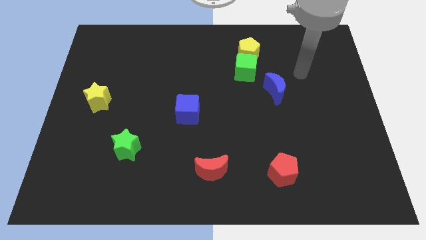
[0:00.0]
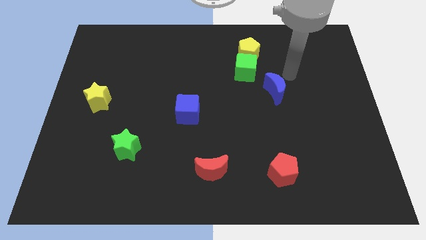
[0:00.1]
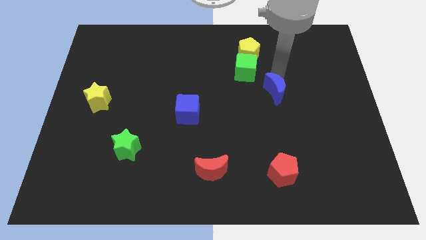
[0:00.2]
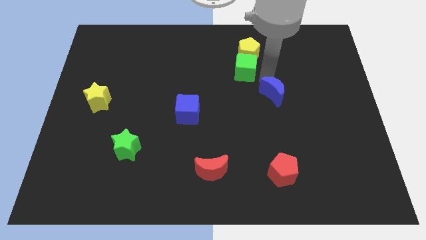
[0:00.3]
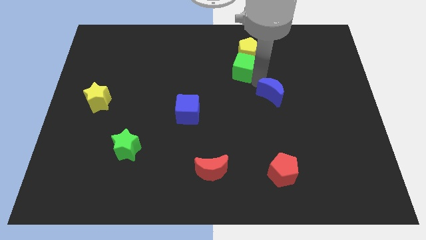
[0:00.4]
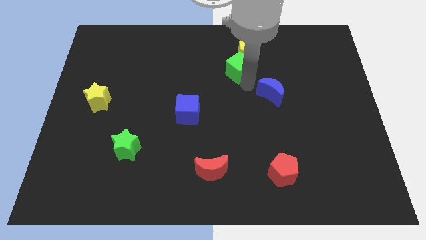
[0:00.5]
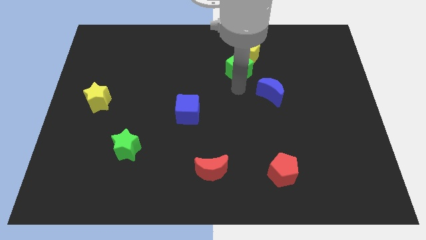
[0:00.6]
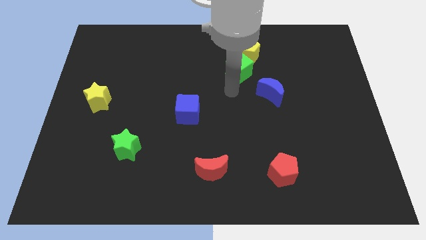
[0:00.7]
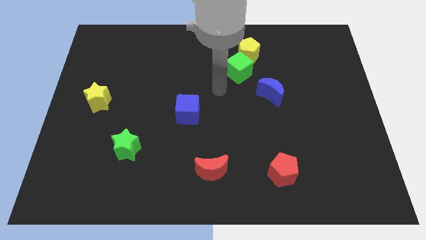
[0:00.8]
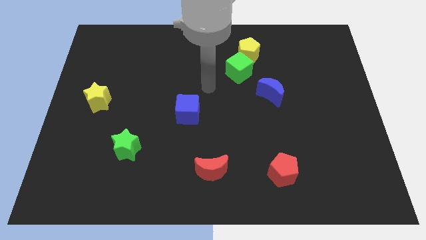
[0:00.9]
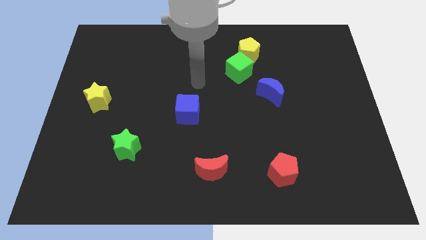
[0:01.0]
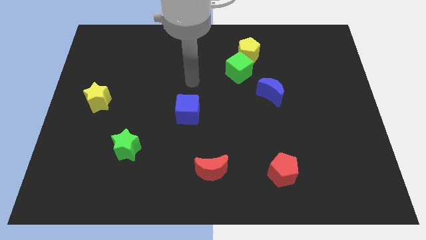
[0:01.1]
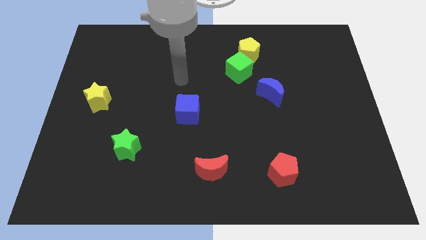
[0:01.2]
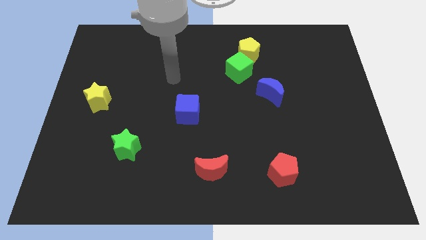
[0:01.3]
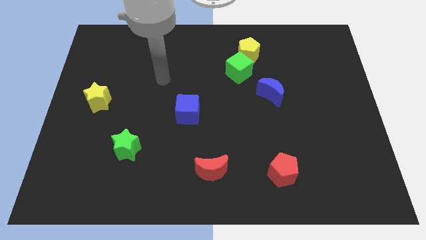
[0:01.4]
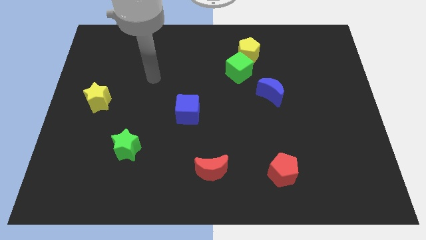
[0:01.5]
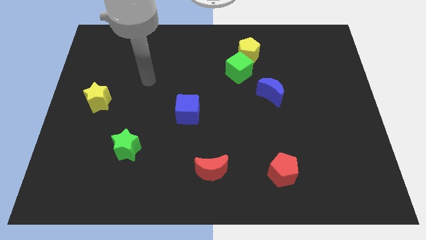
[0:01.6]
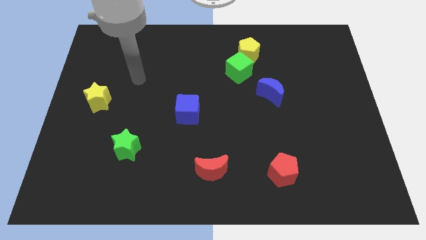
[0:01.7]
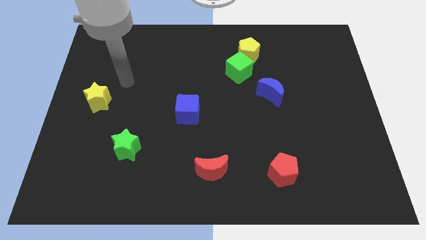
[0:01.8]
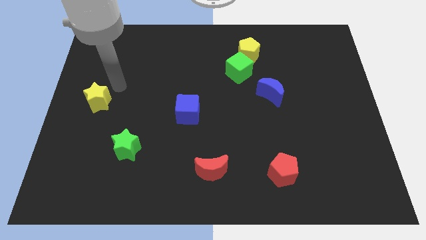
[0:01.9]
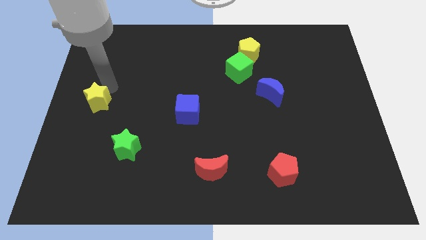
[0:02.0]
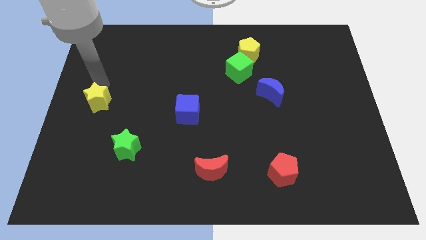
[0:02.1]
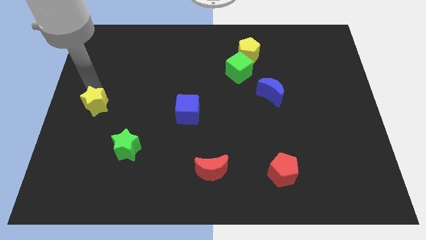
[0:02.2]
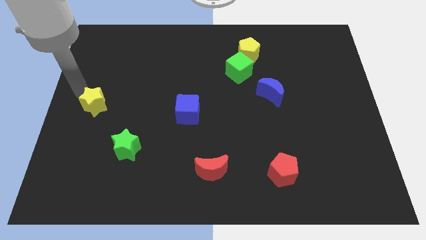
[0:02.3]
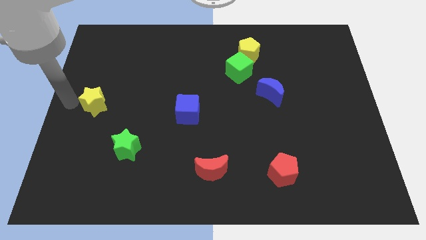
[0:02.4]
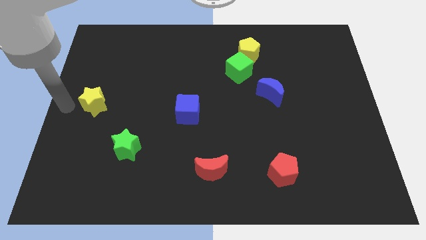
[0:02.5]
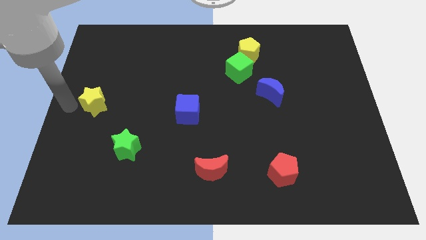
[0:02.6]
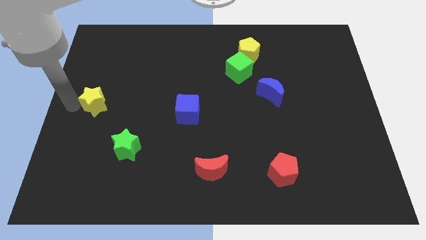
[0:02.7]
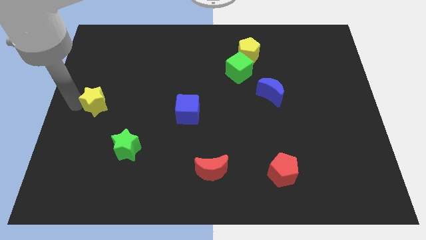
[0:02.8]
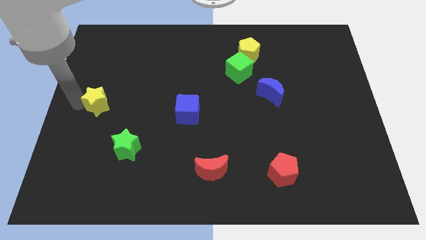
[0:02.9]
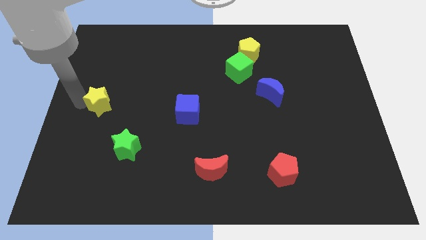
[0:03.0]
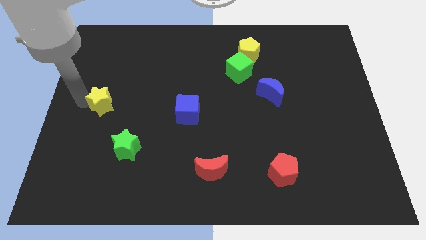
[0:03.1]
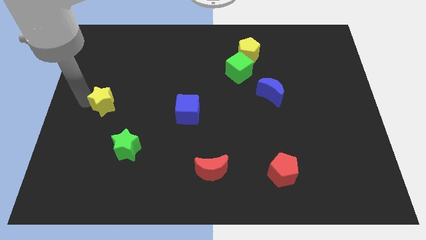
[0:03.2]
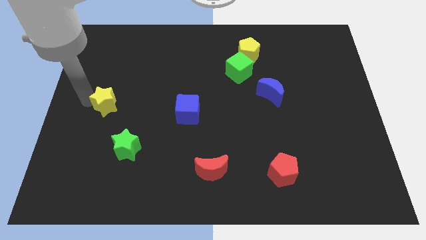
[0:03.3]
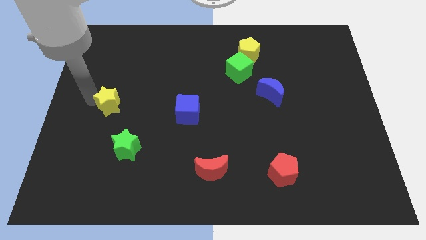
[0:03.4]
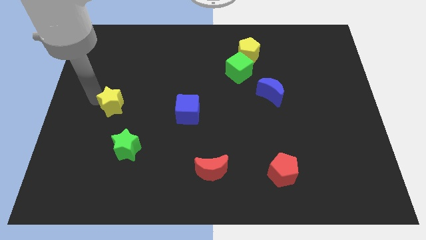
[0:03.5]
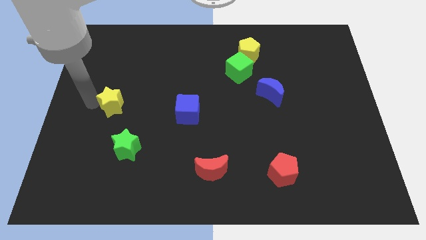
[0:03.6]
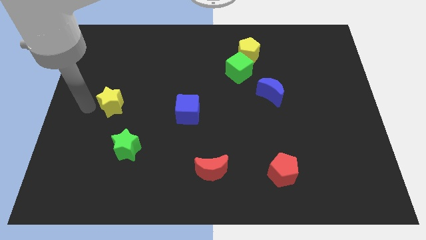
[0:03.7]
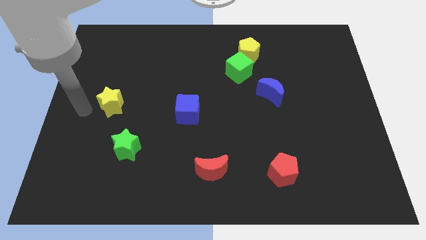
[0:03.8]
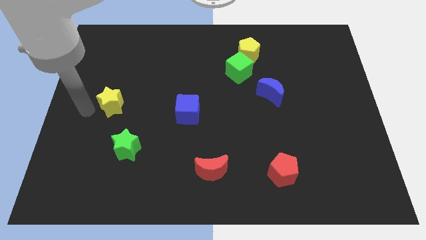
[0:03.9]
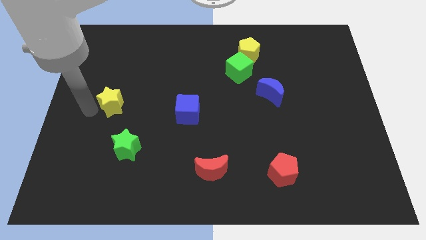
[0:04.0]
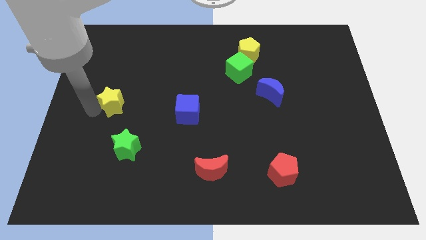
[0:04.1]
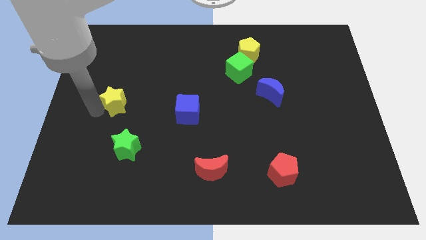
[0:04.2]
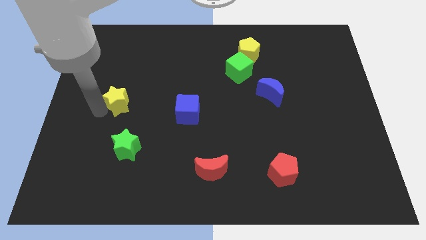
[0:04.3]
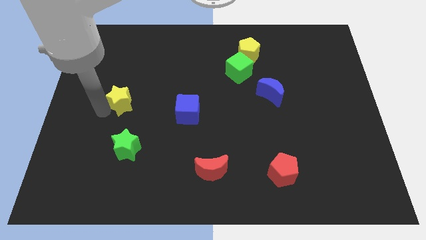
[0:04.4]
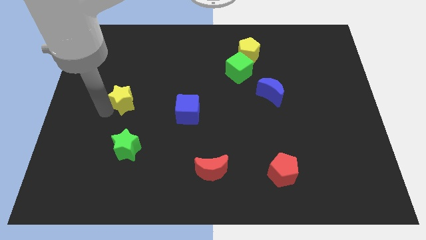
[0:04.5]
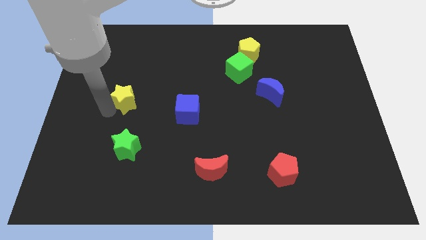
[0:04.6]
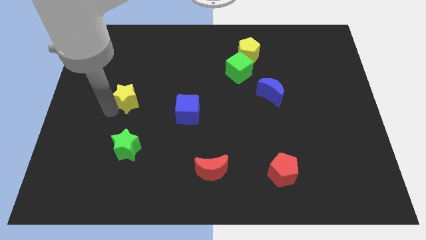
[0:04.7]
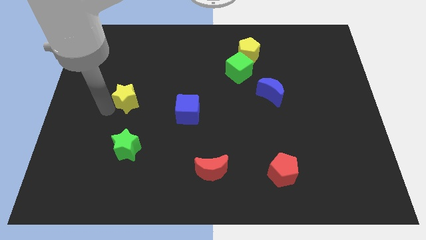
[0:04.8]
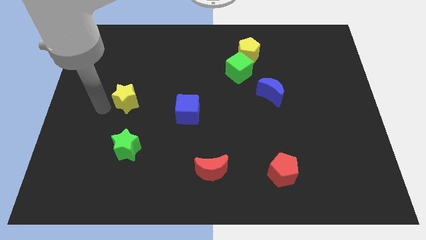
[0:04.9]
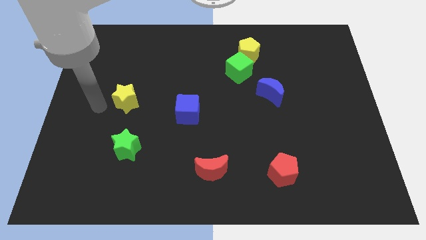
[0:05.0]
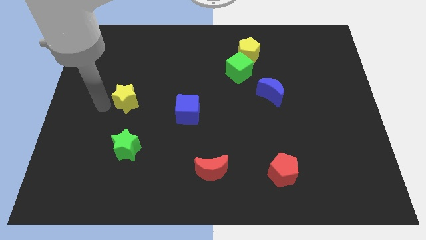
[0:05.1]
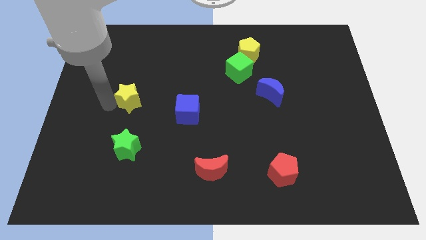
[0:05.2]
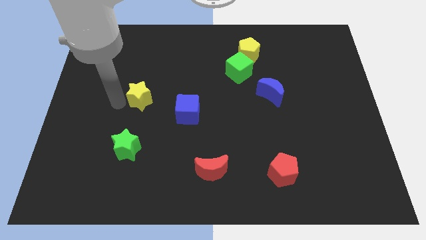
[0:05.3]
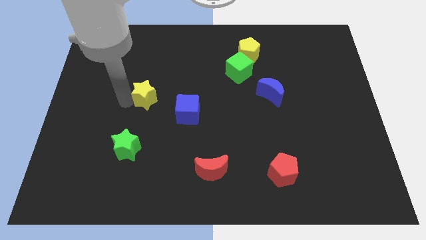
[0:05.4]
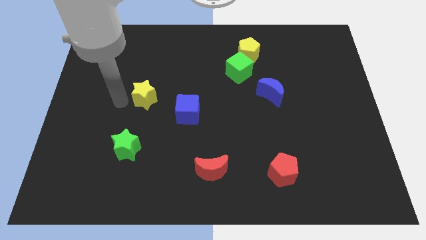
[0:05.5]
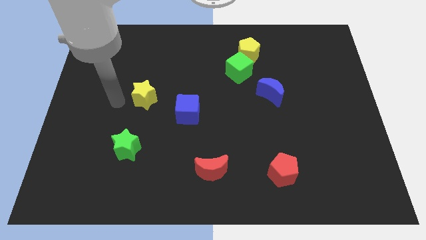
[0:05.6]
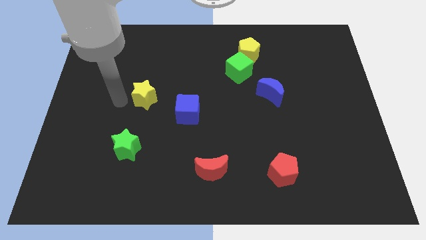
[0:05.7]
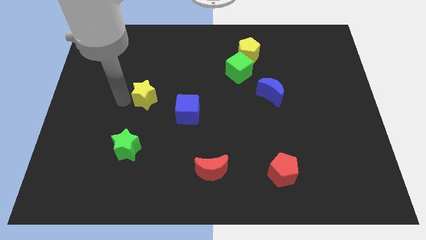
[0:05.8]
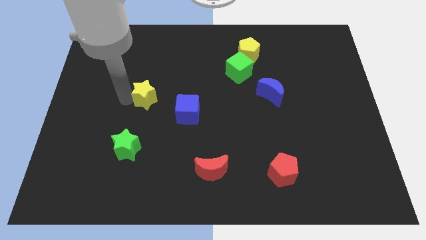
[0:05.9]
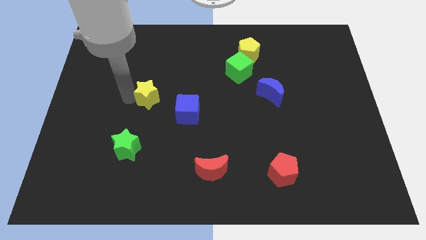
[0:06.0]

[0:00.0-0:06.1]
move the yellow star to the top left of the blue cube

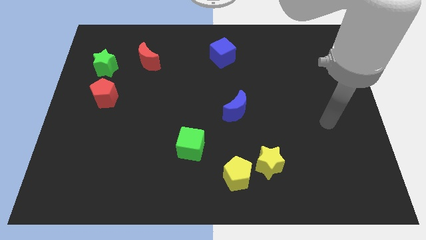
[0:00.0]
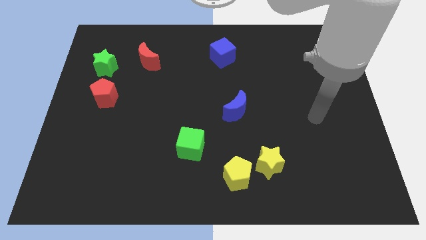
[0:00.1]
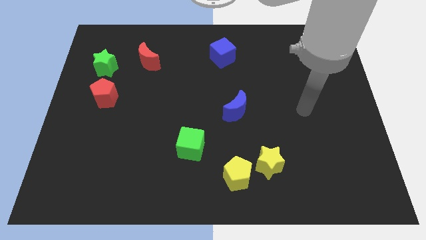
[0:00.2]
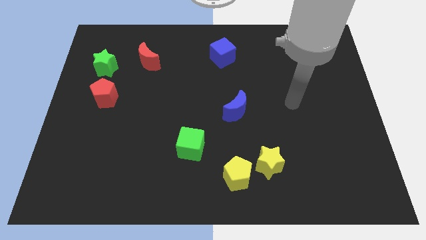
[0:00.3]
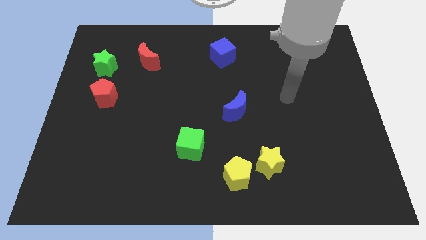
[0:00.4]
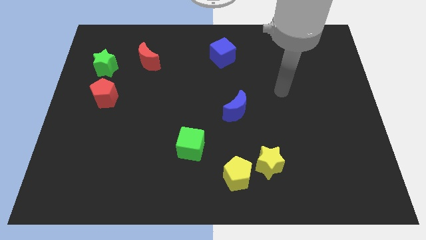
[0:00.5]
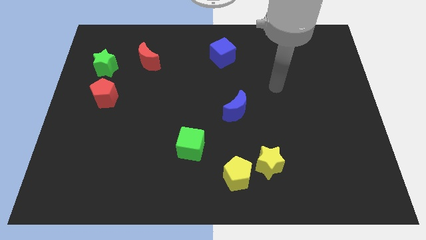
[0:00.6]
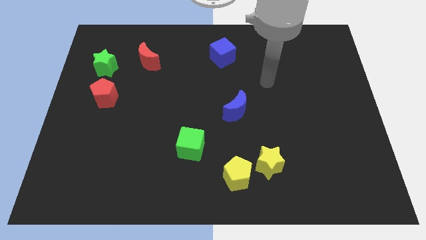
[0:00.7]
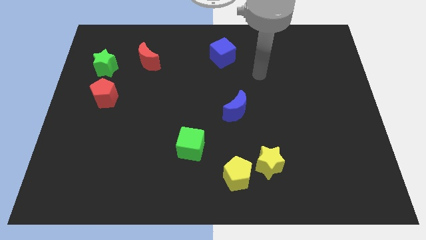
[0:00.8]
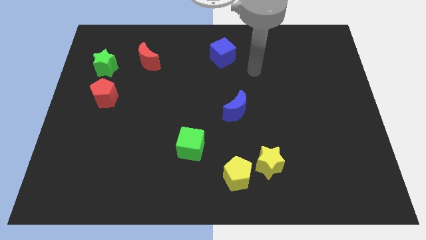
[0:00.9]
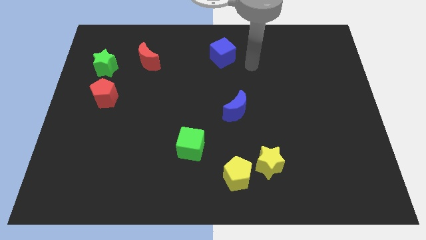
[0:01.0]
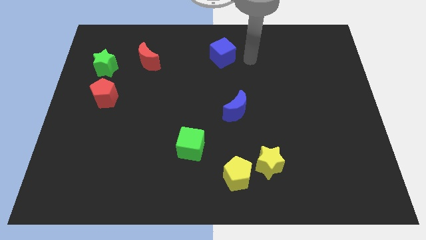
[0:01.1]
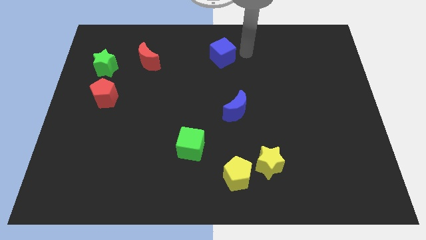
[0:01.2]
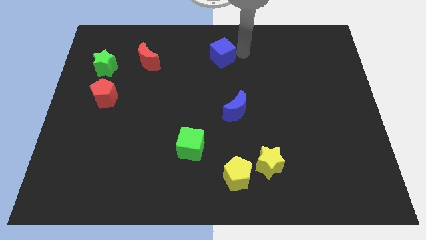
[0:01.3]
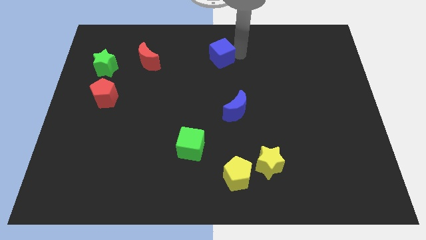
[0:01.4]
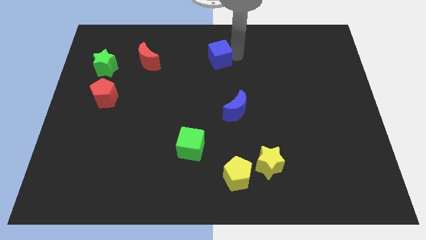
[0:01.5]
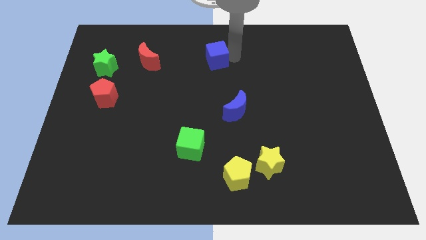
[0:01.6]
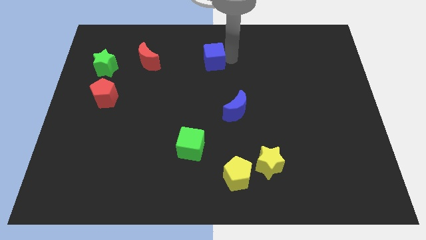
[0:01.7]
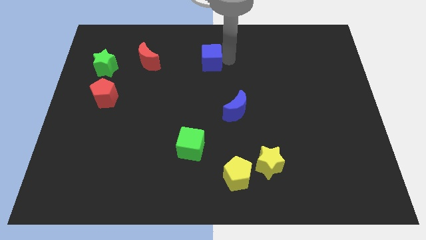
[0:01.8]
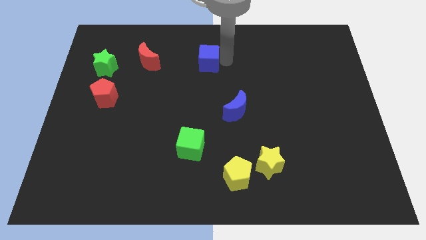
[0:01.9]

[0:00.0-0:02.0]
put the blue cube just right of the red moon
